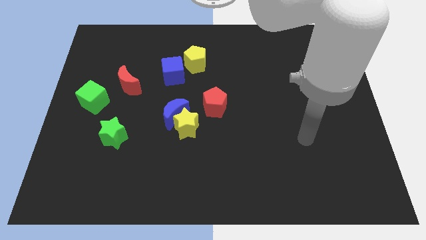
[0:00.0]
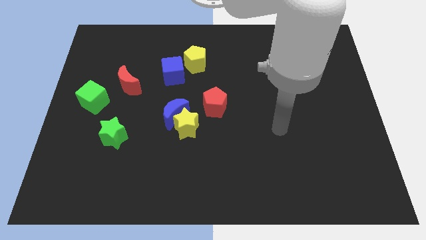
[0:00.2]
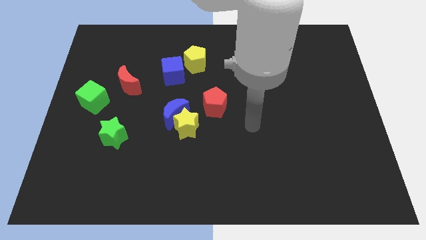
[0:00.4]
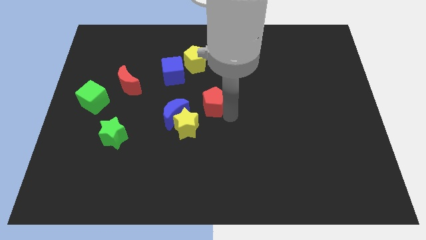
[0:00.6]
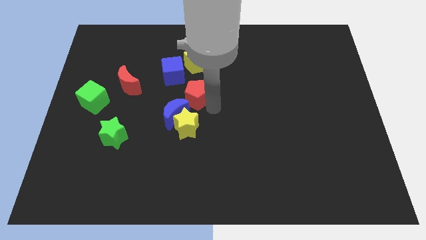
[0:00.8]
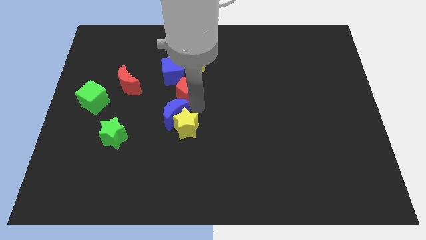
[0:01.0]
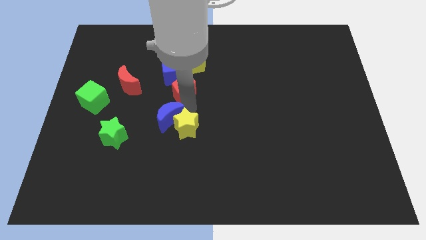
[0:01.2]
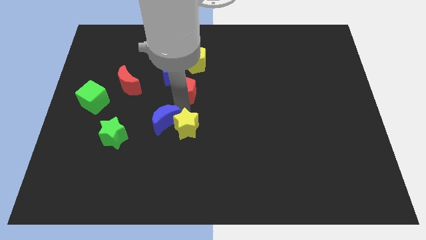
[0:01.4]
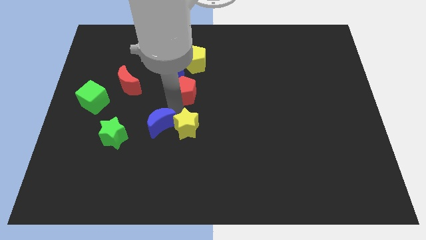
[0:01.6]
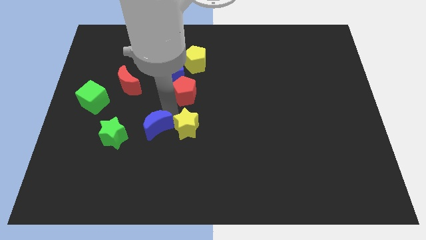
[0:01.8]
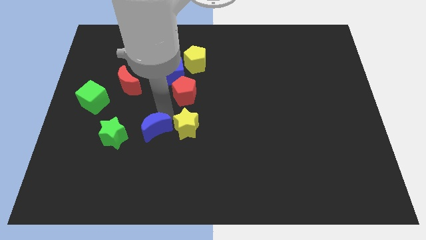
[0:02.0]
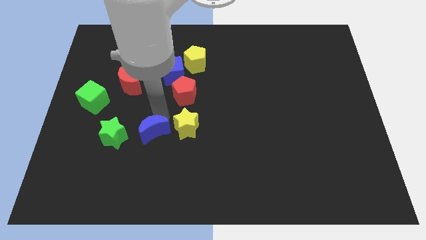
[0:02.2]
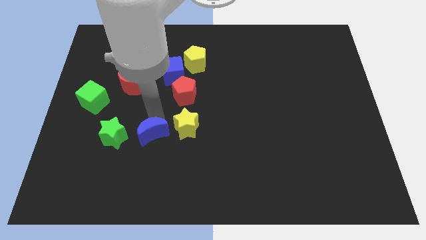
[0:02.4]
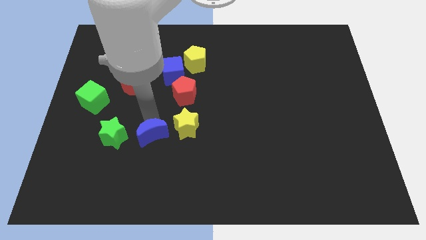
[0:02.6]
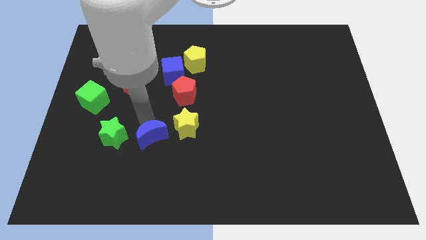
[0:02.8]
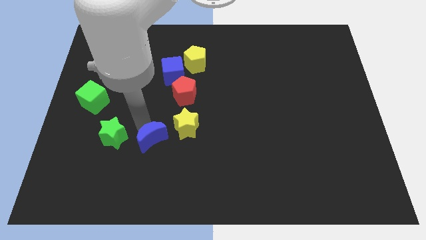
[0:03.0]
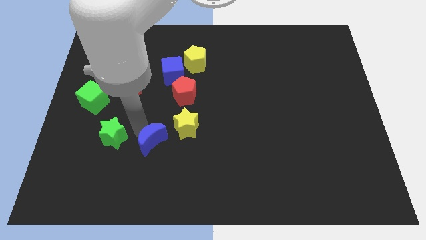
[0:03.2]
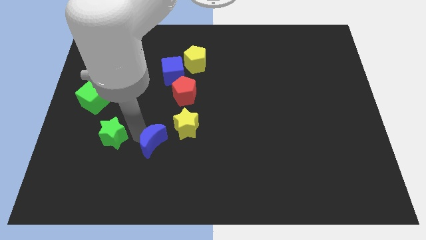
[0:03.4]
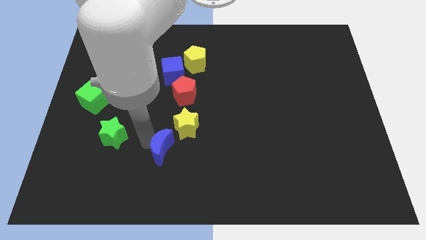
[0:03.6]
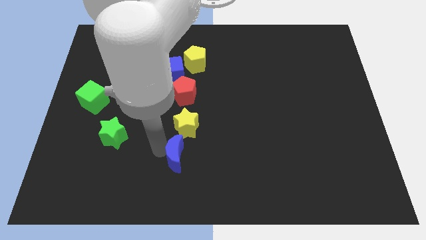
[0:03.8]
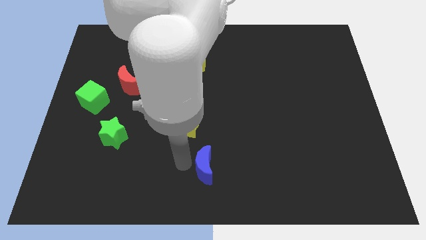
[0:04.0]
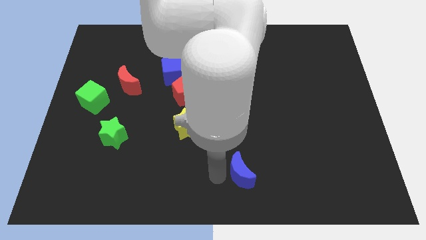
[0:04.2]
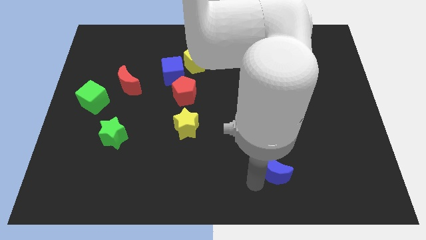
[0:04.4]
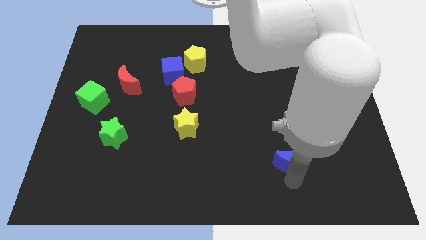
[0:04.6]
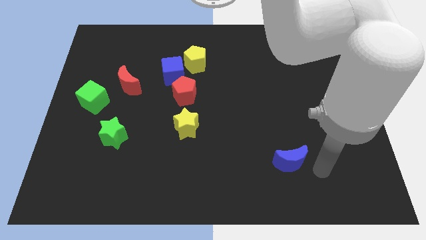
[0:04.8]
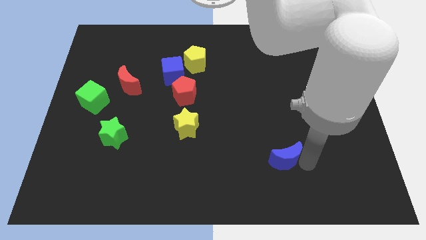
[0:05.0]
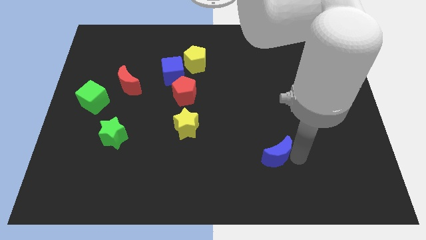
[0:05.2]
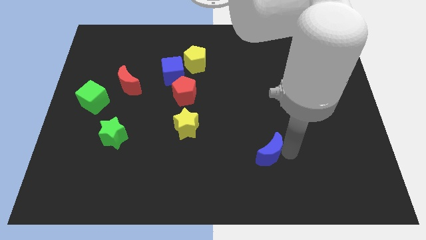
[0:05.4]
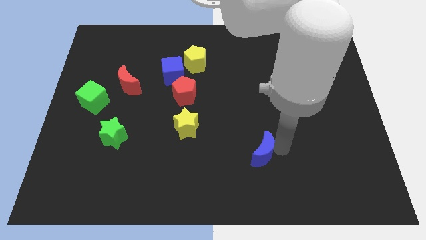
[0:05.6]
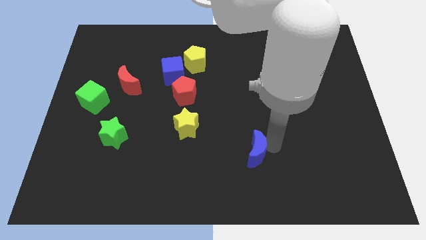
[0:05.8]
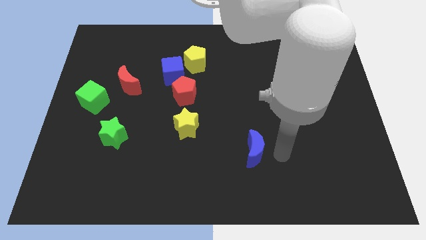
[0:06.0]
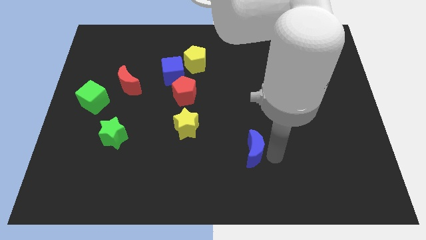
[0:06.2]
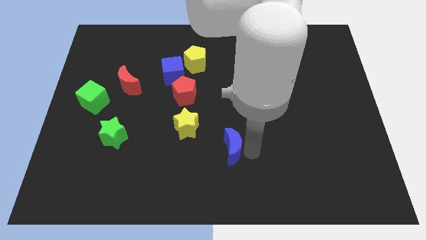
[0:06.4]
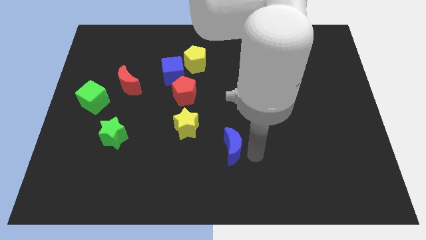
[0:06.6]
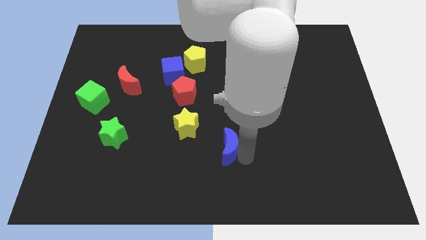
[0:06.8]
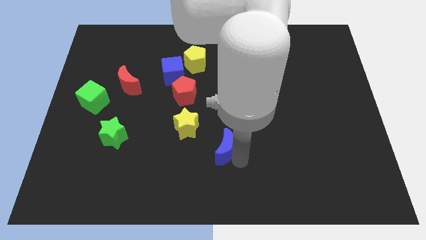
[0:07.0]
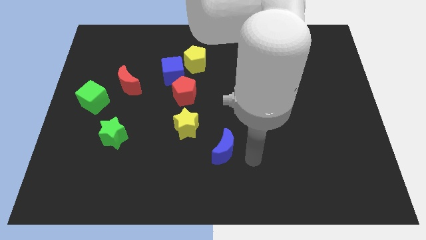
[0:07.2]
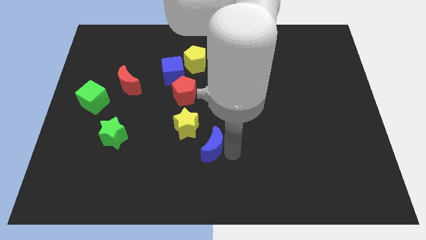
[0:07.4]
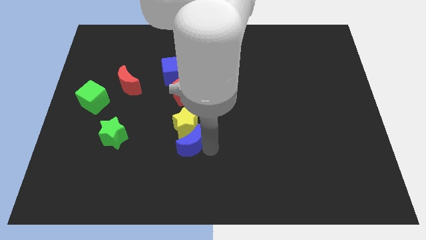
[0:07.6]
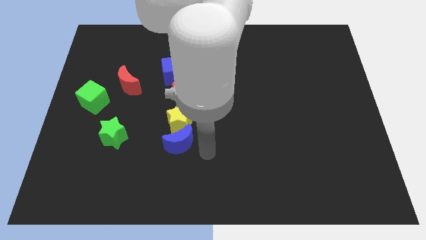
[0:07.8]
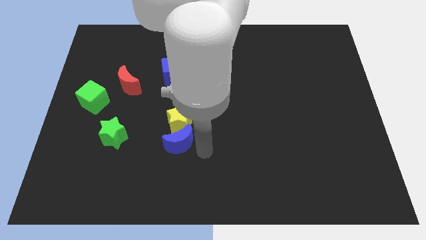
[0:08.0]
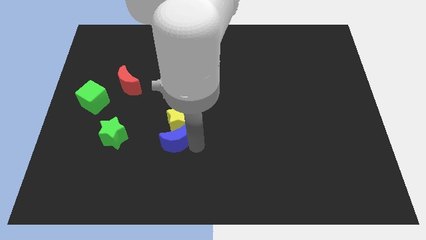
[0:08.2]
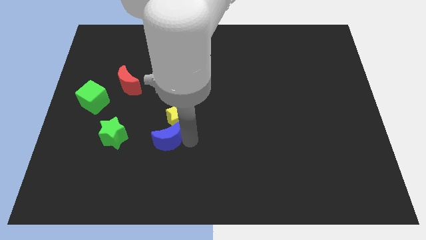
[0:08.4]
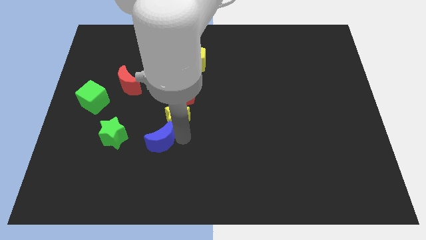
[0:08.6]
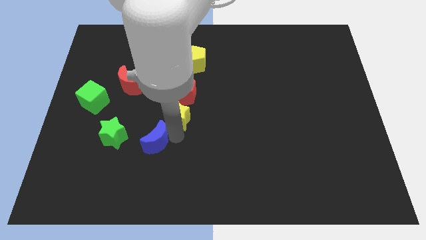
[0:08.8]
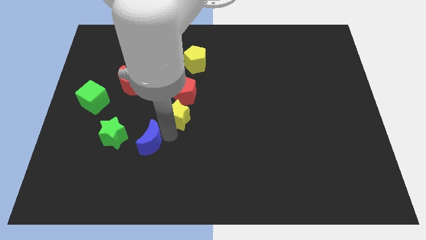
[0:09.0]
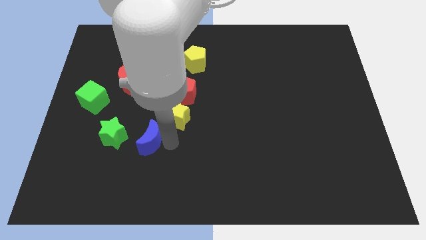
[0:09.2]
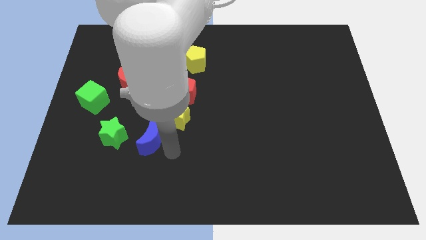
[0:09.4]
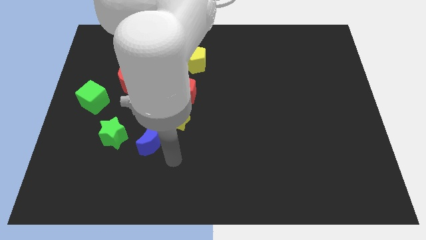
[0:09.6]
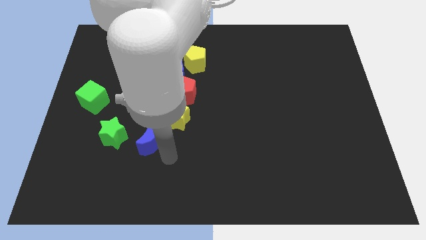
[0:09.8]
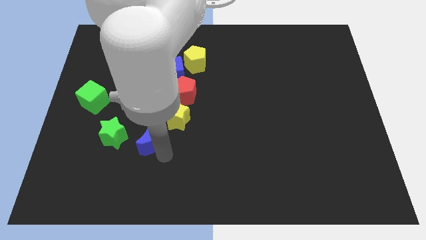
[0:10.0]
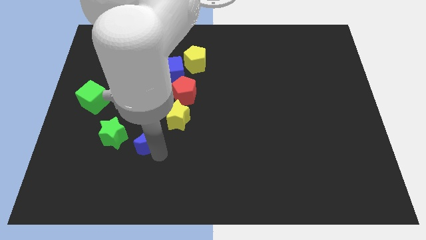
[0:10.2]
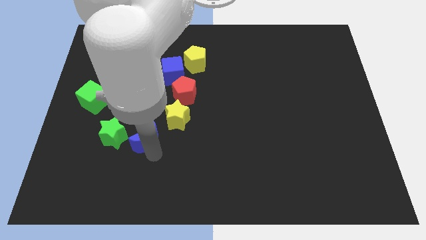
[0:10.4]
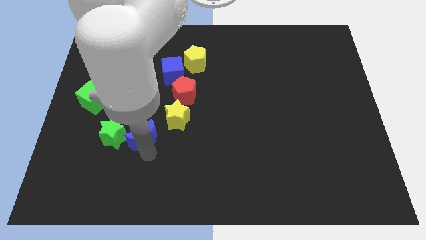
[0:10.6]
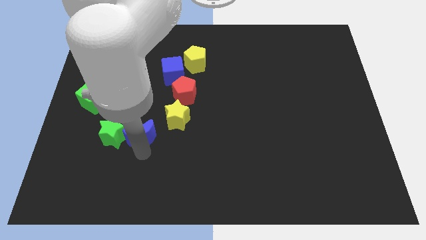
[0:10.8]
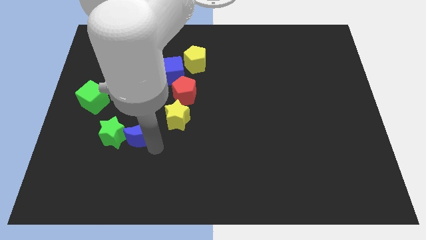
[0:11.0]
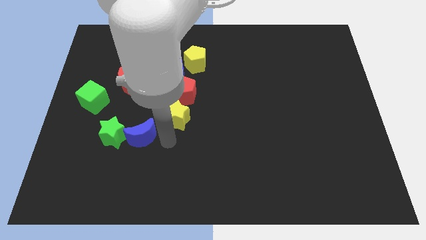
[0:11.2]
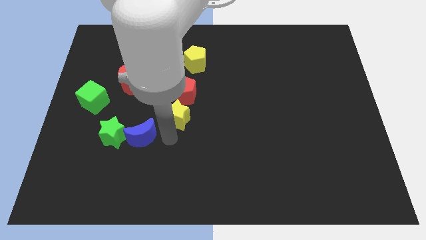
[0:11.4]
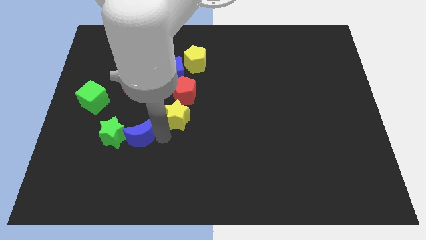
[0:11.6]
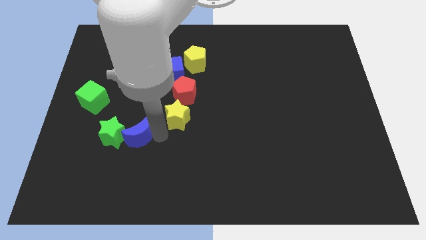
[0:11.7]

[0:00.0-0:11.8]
move the blue moon next to the green star

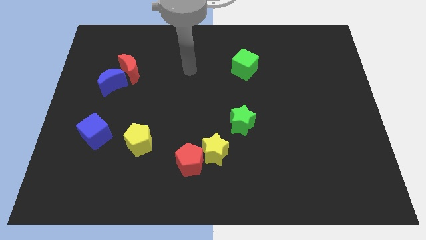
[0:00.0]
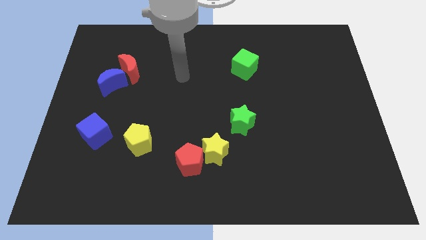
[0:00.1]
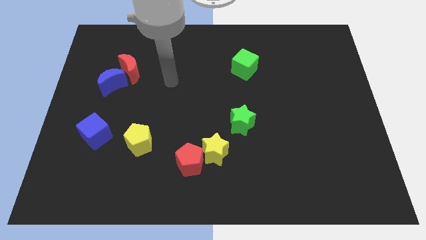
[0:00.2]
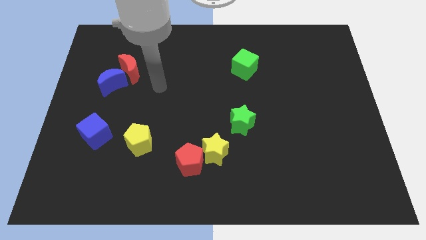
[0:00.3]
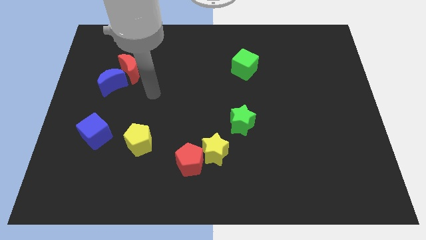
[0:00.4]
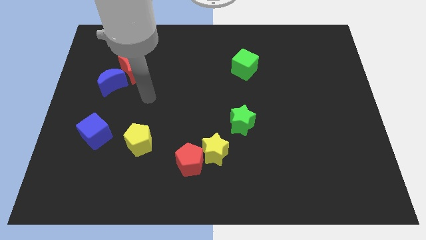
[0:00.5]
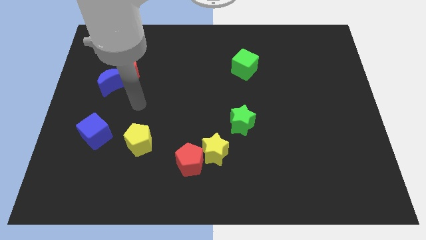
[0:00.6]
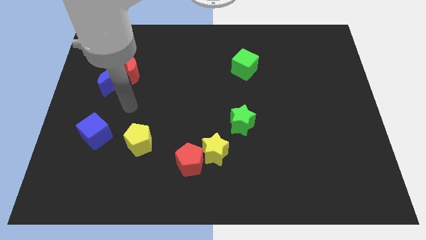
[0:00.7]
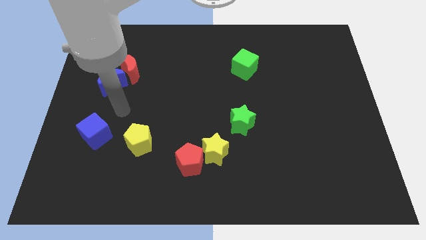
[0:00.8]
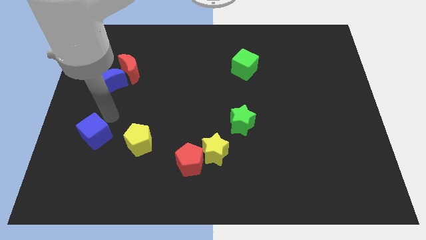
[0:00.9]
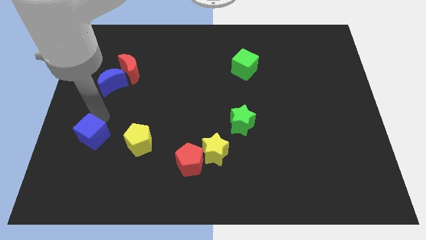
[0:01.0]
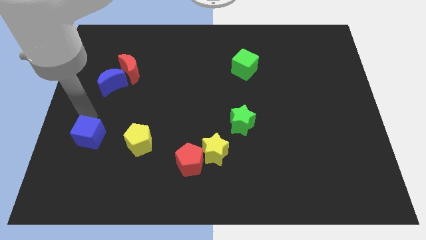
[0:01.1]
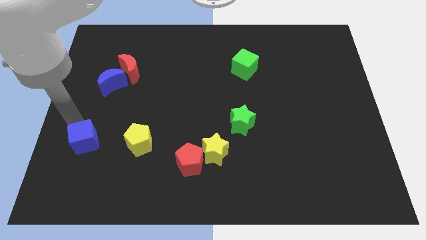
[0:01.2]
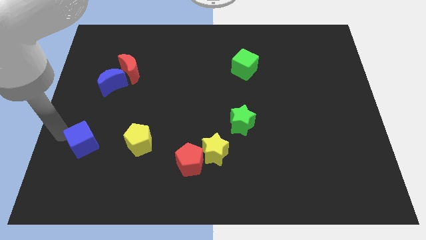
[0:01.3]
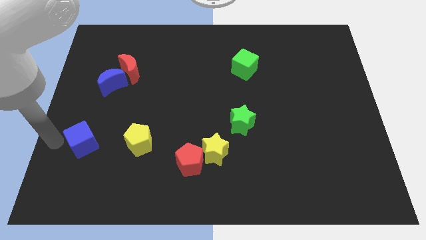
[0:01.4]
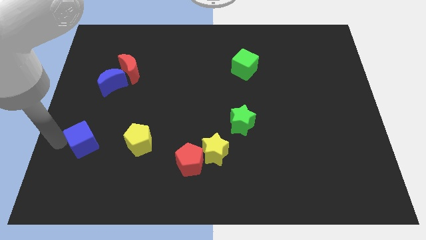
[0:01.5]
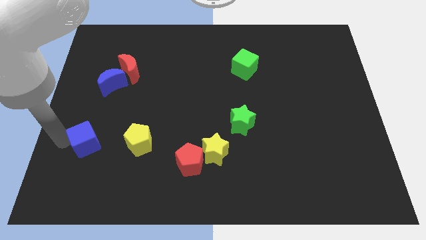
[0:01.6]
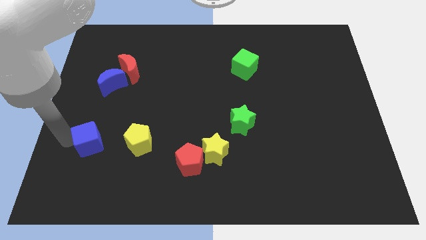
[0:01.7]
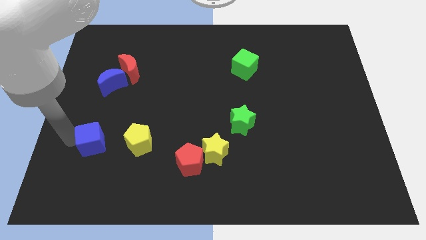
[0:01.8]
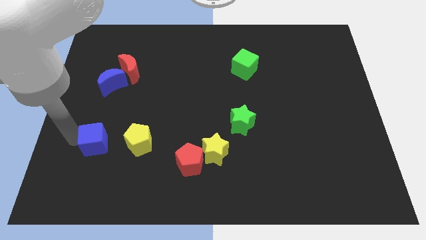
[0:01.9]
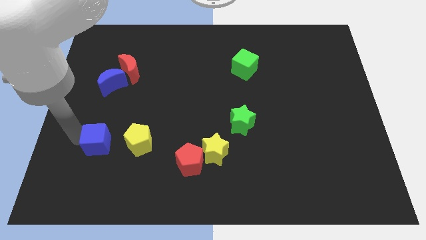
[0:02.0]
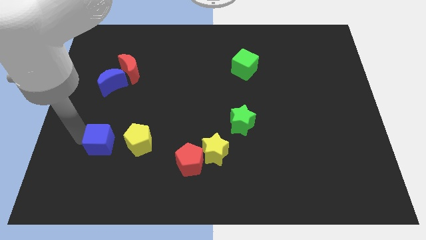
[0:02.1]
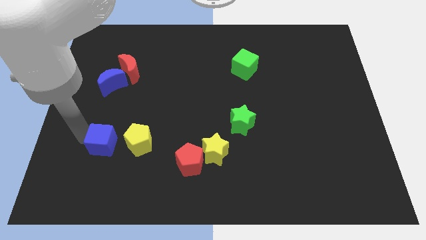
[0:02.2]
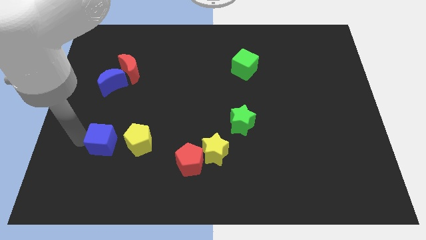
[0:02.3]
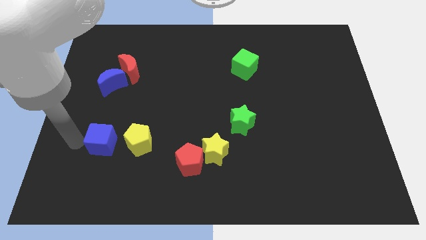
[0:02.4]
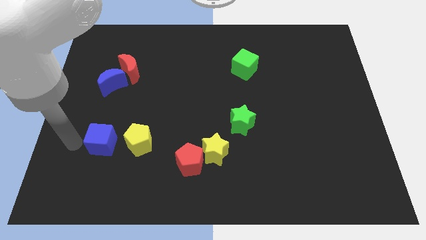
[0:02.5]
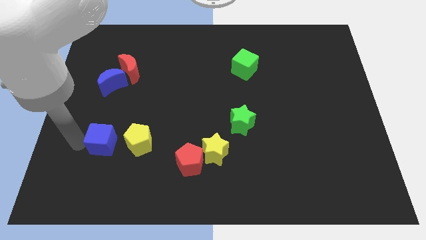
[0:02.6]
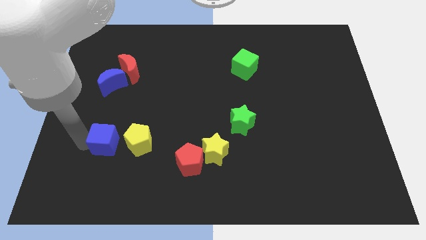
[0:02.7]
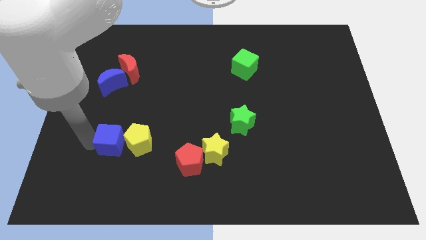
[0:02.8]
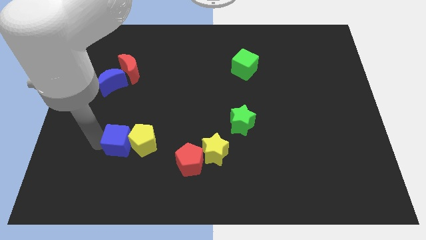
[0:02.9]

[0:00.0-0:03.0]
put the blue cube close to the yellow pentagon
